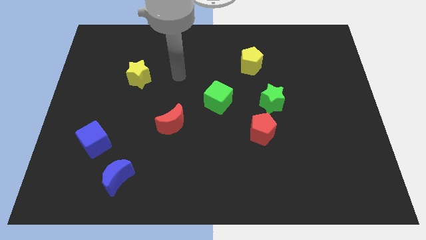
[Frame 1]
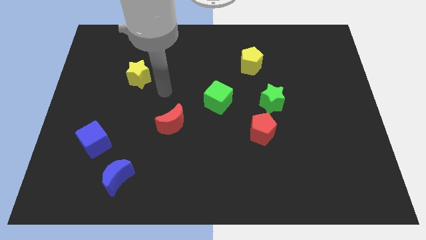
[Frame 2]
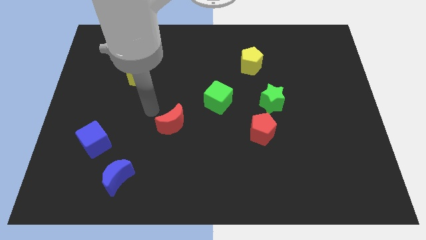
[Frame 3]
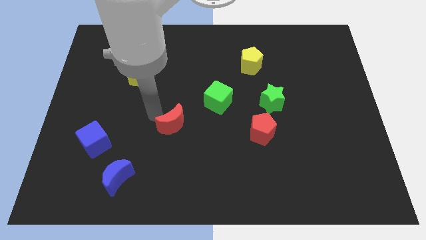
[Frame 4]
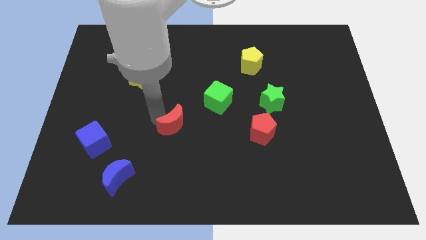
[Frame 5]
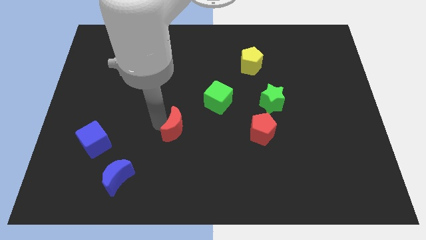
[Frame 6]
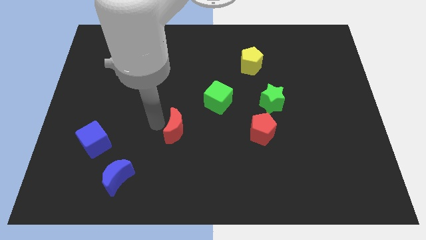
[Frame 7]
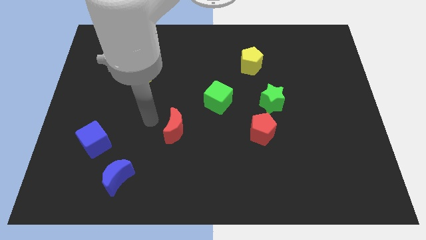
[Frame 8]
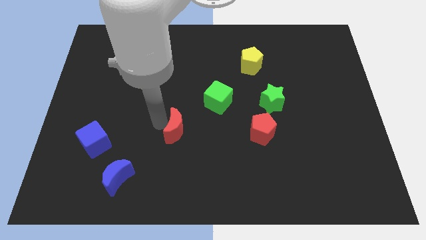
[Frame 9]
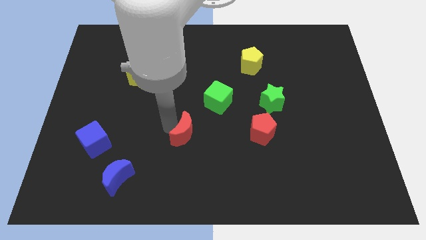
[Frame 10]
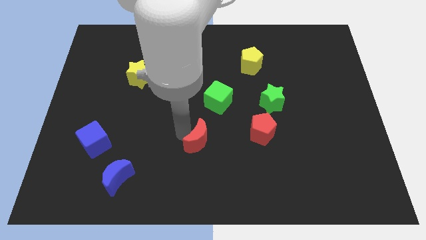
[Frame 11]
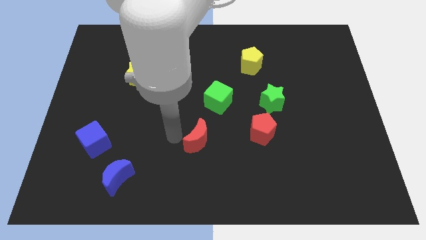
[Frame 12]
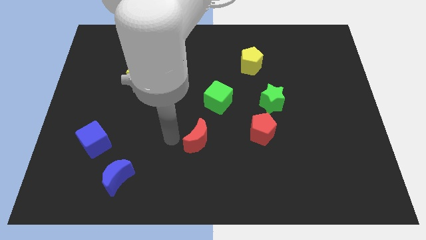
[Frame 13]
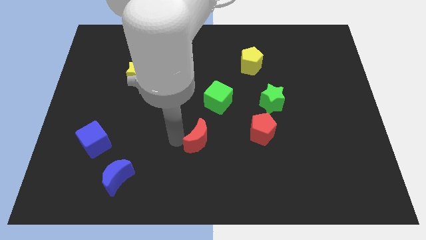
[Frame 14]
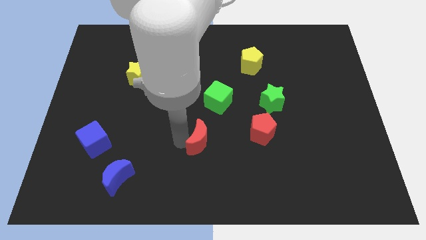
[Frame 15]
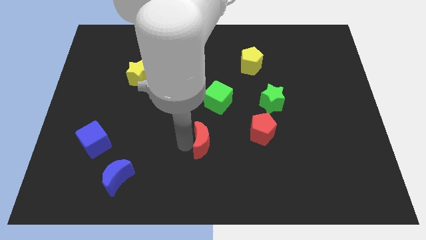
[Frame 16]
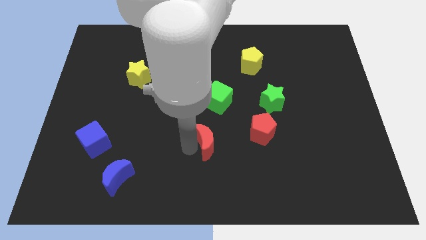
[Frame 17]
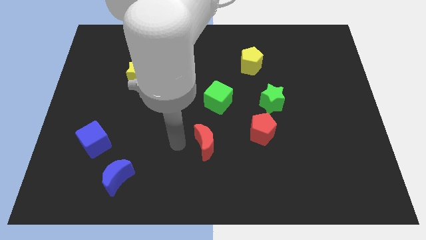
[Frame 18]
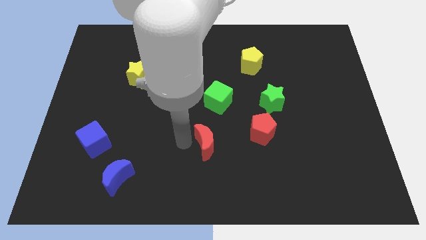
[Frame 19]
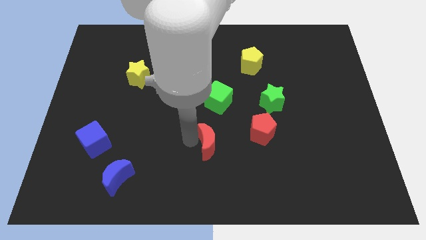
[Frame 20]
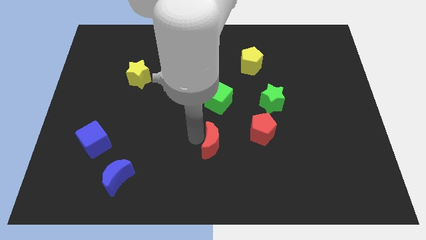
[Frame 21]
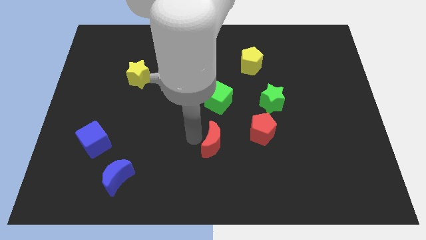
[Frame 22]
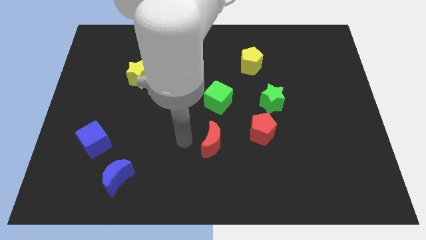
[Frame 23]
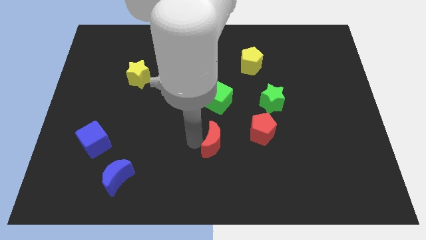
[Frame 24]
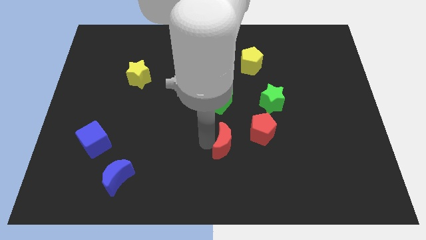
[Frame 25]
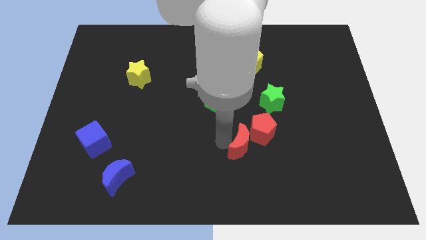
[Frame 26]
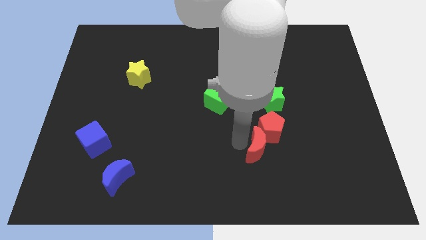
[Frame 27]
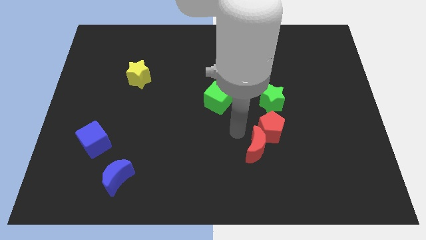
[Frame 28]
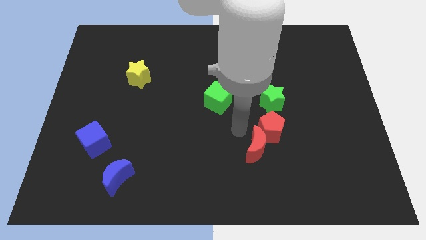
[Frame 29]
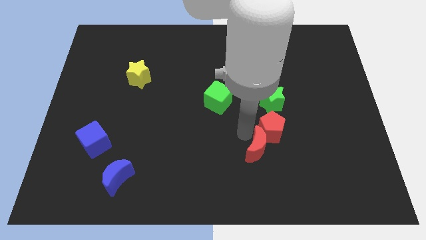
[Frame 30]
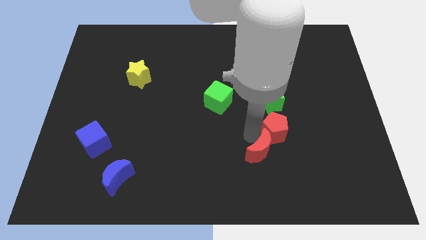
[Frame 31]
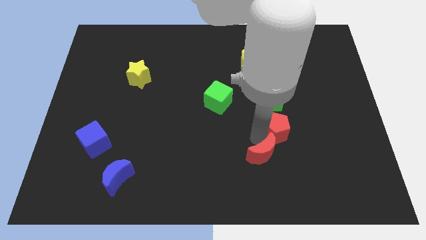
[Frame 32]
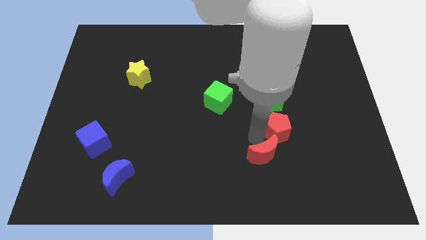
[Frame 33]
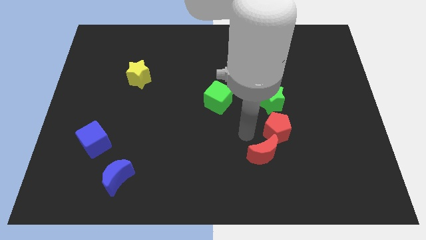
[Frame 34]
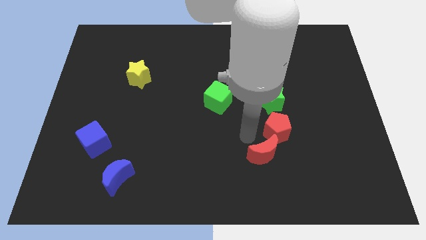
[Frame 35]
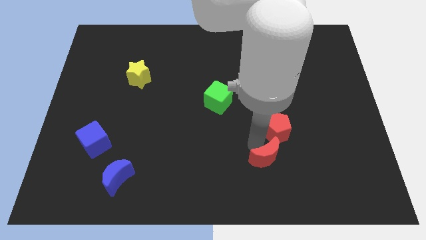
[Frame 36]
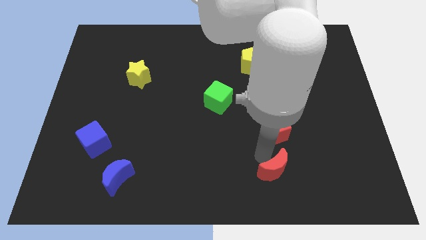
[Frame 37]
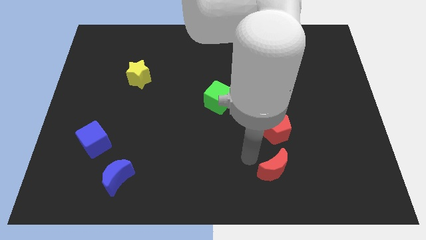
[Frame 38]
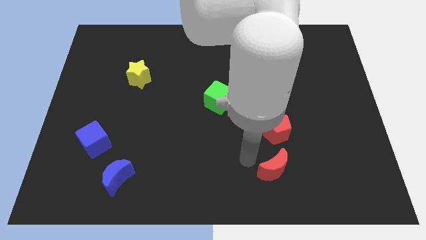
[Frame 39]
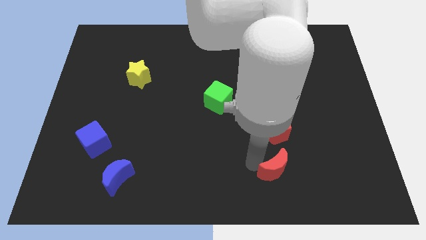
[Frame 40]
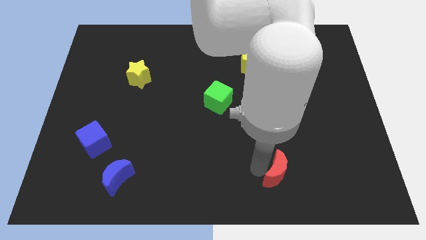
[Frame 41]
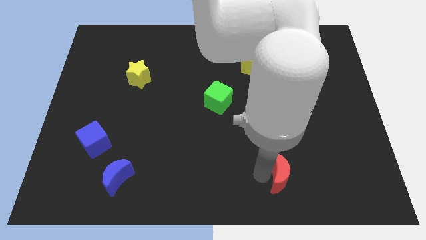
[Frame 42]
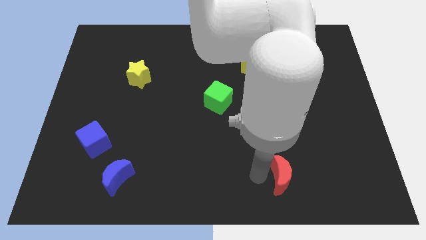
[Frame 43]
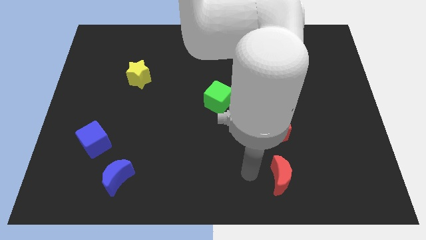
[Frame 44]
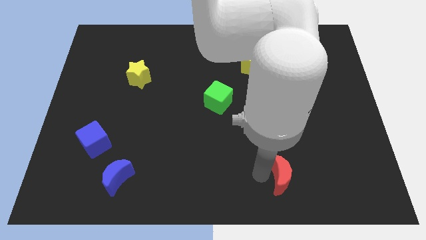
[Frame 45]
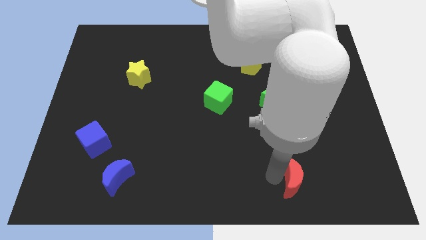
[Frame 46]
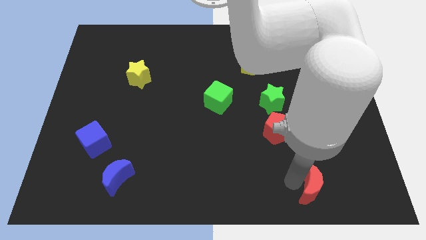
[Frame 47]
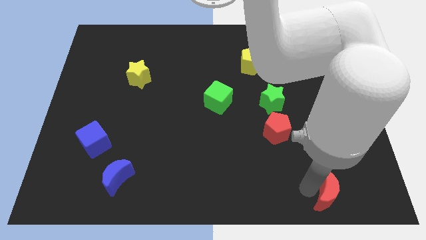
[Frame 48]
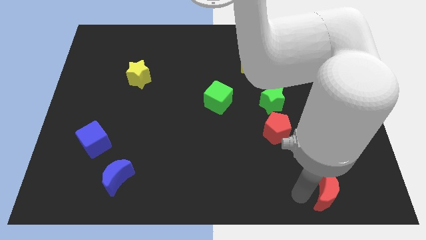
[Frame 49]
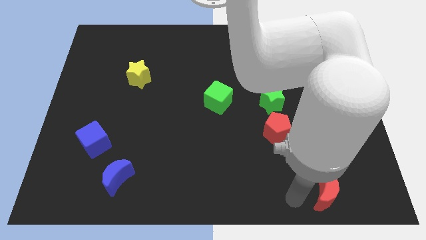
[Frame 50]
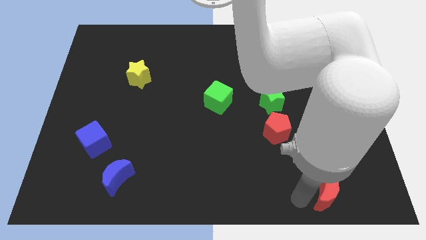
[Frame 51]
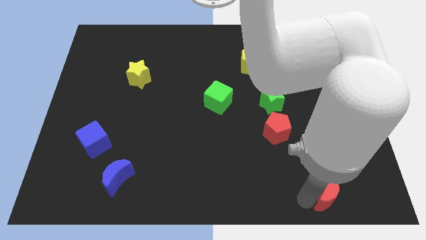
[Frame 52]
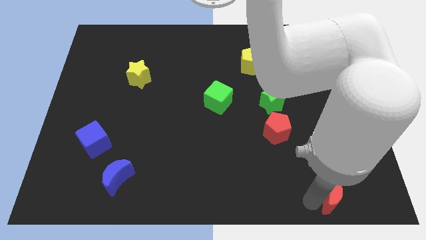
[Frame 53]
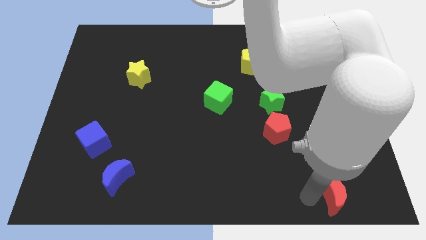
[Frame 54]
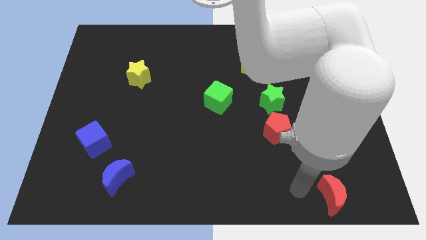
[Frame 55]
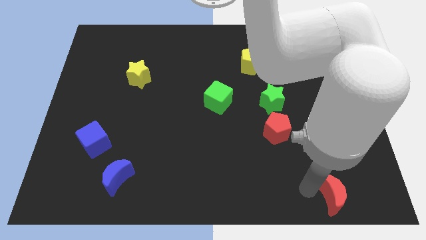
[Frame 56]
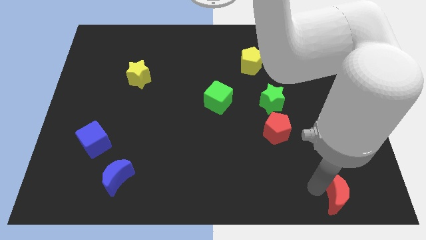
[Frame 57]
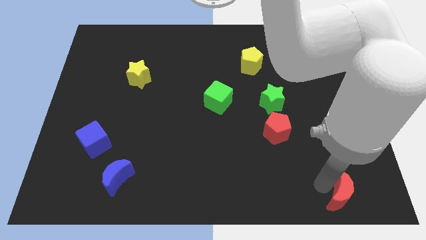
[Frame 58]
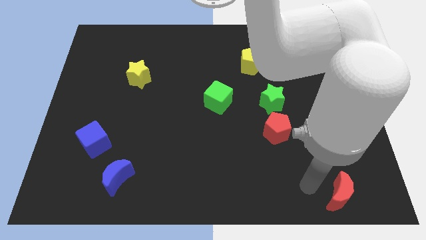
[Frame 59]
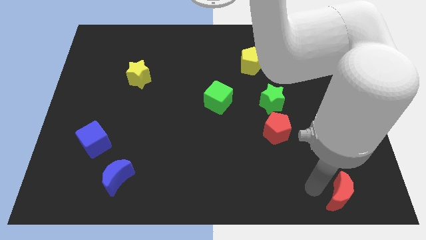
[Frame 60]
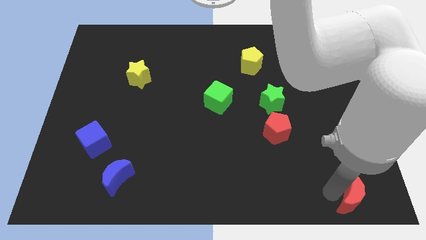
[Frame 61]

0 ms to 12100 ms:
put the red moon to the bottom right of the board

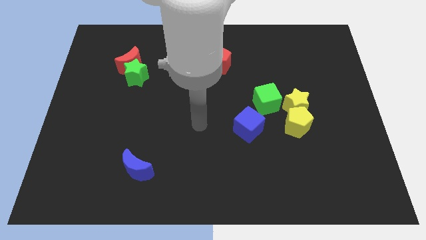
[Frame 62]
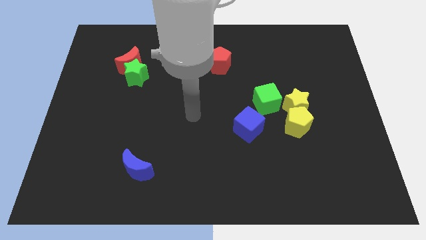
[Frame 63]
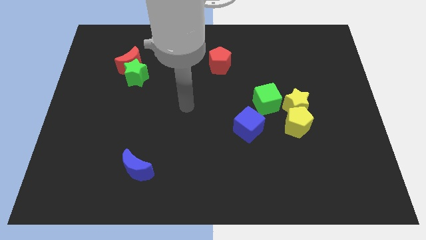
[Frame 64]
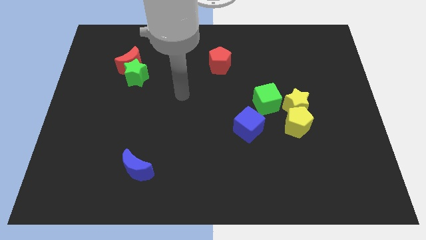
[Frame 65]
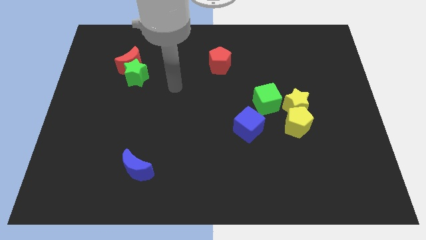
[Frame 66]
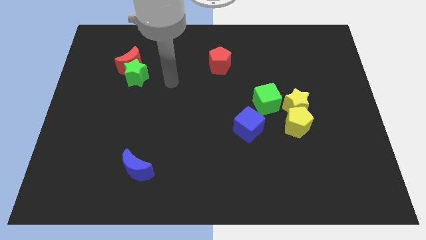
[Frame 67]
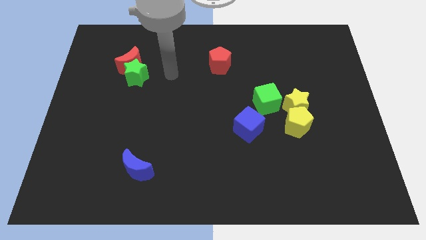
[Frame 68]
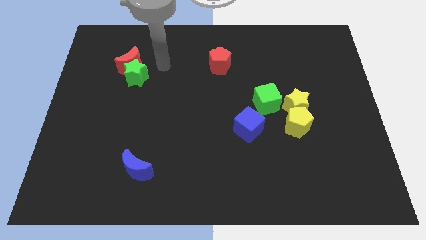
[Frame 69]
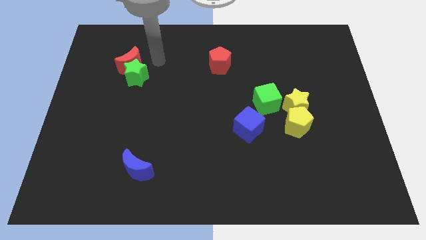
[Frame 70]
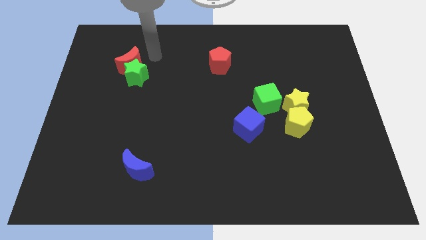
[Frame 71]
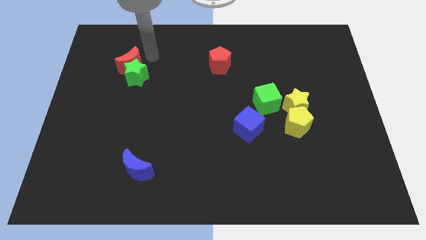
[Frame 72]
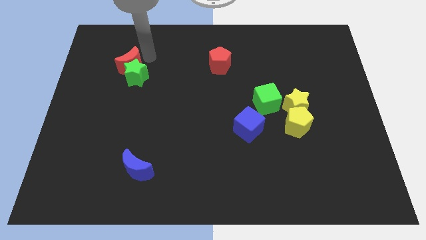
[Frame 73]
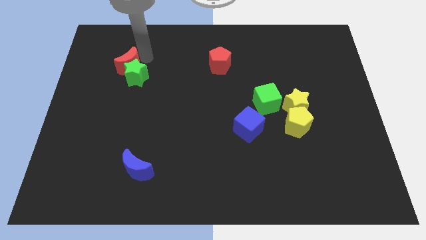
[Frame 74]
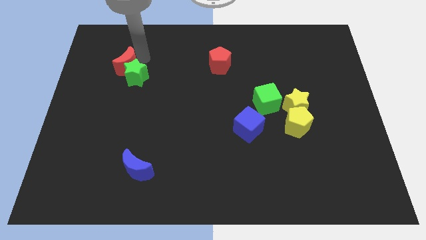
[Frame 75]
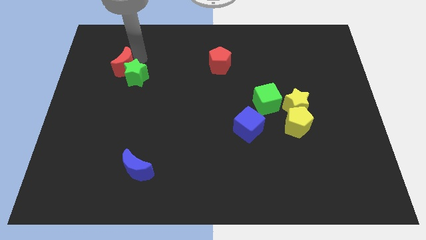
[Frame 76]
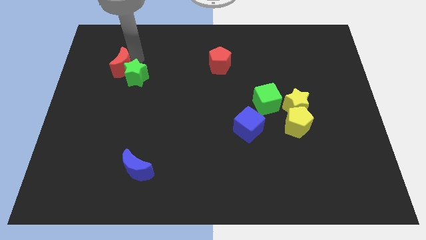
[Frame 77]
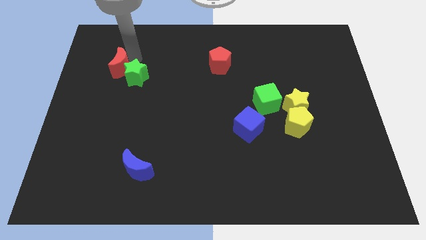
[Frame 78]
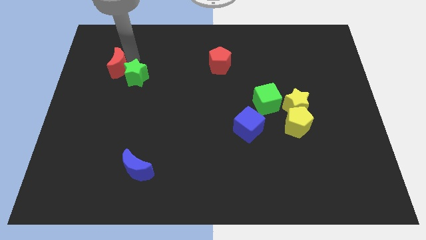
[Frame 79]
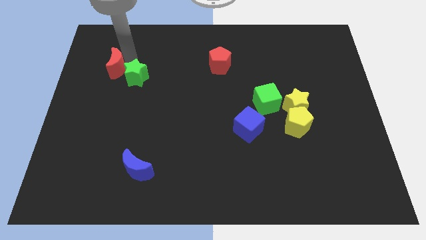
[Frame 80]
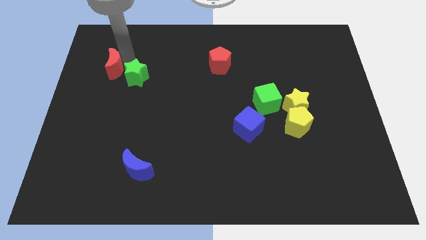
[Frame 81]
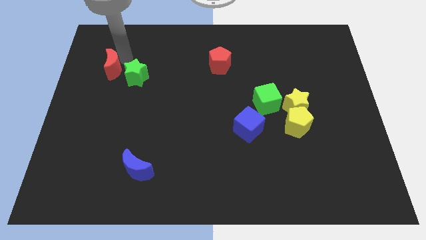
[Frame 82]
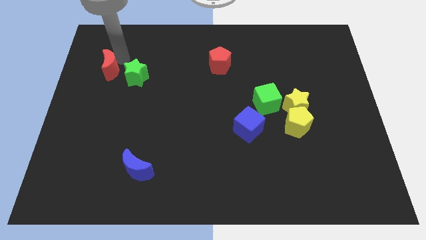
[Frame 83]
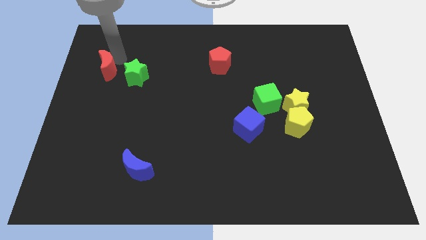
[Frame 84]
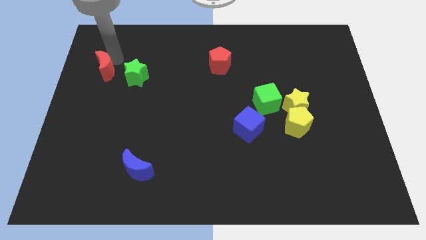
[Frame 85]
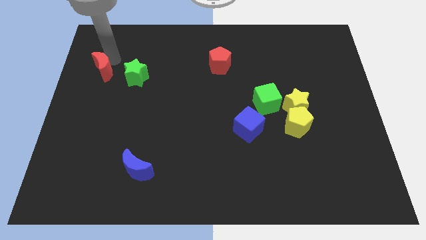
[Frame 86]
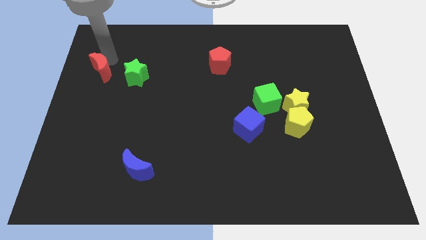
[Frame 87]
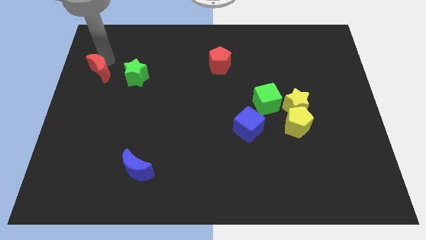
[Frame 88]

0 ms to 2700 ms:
push the red moon to the center left
